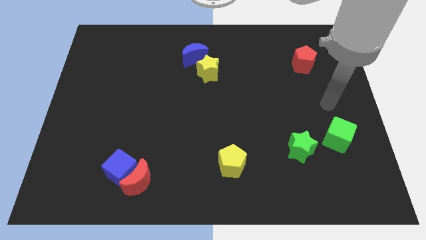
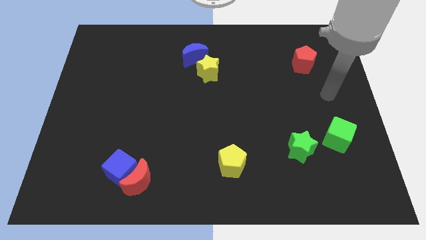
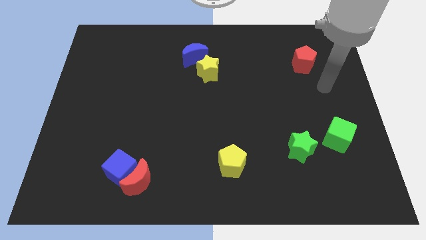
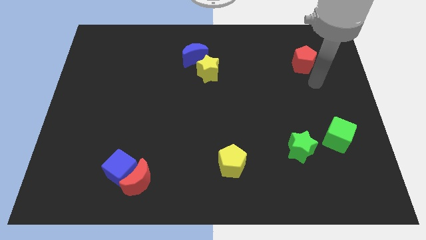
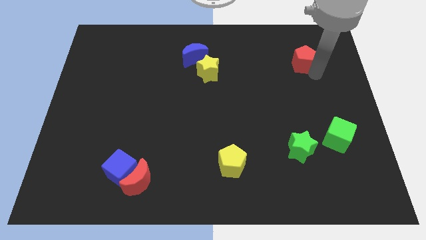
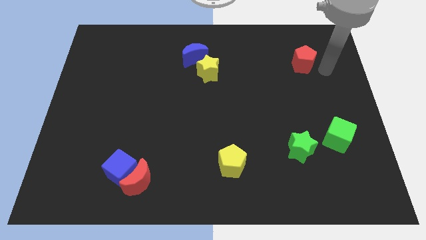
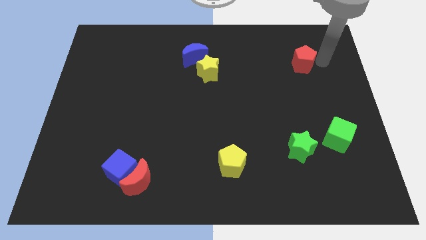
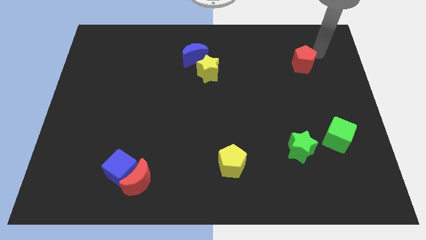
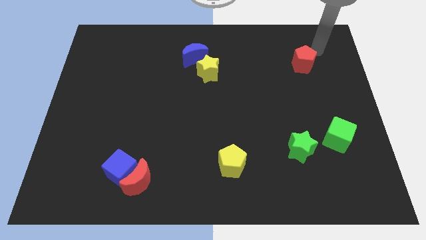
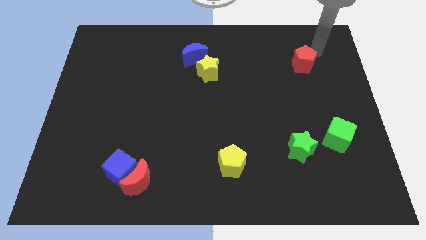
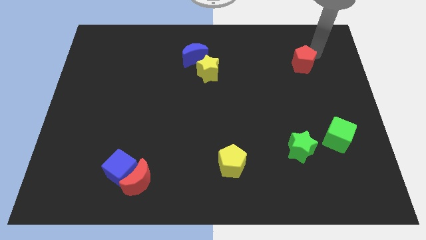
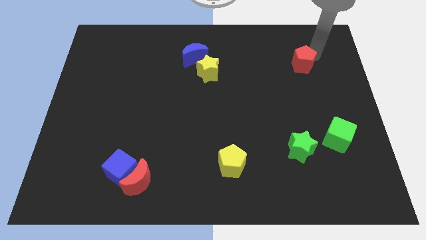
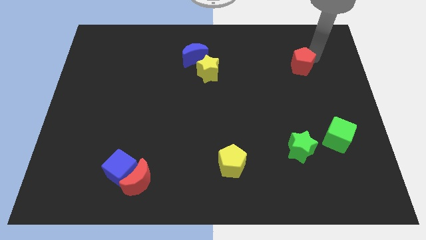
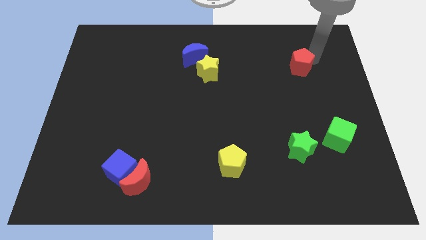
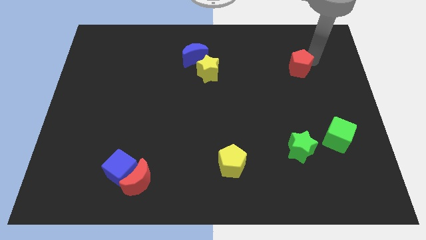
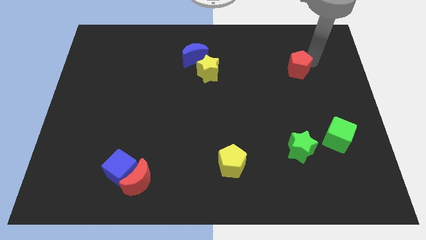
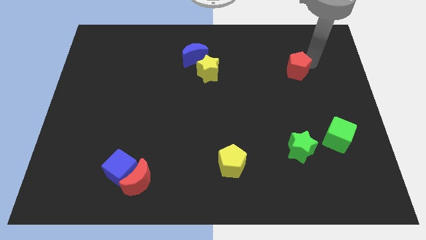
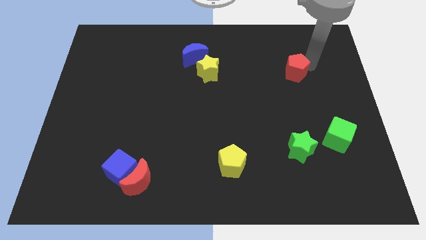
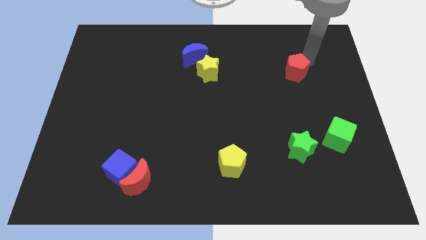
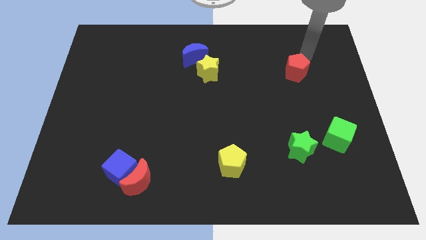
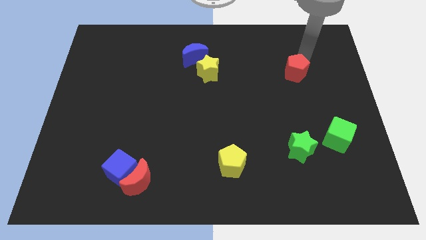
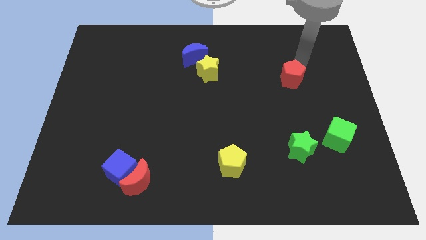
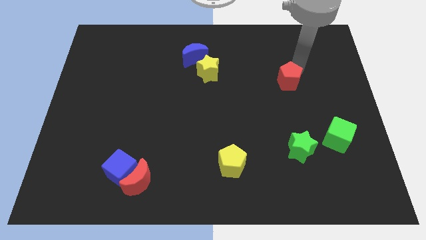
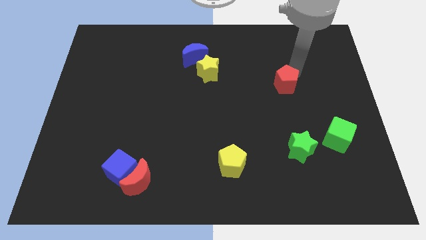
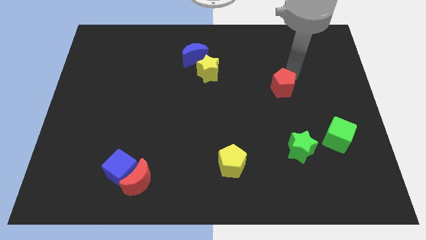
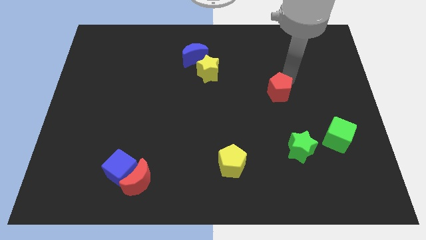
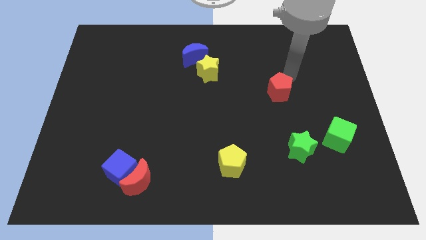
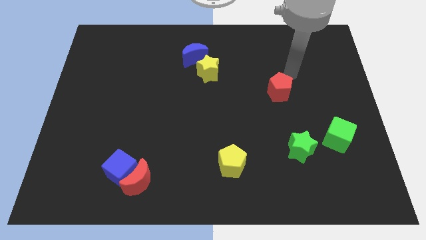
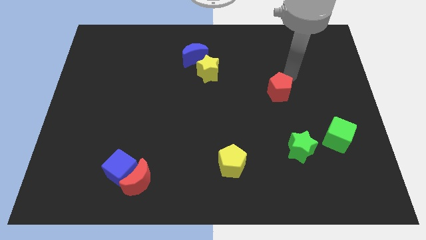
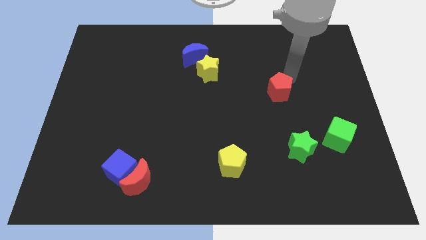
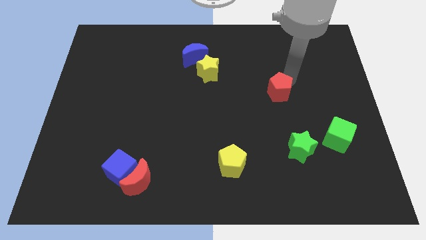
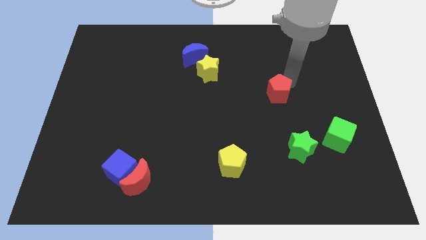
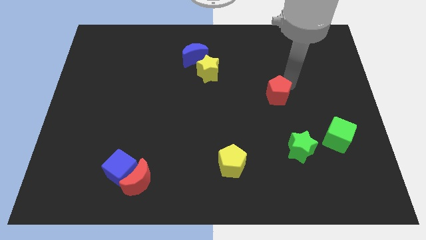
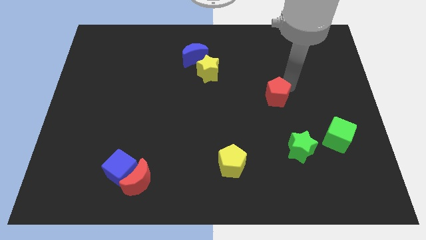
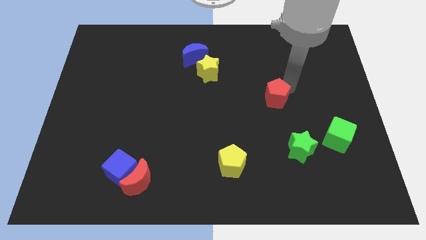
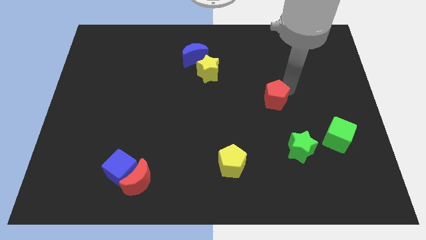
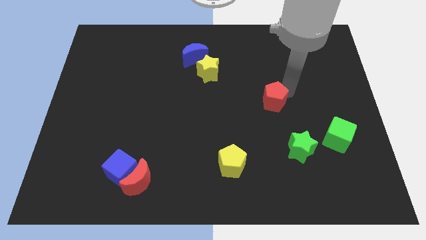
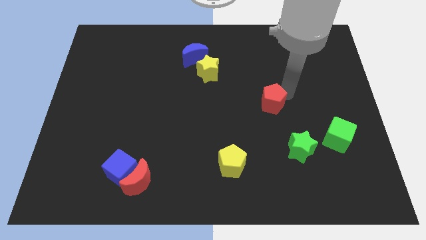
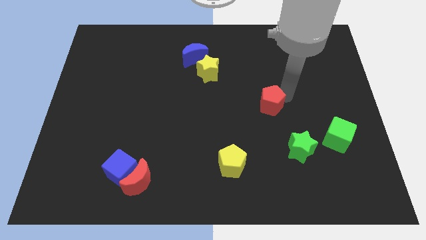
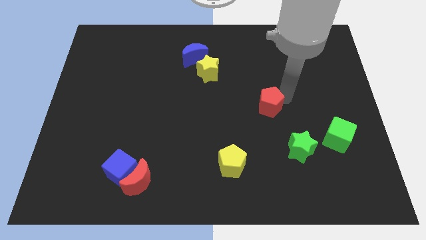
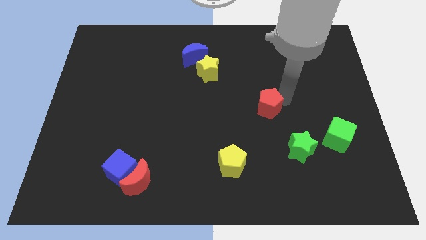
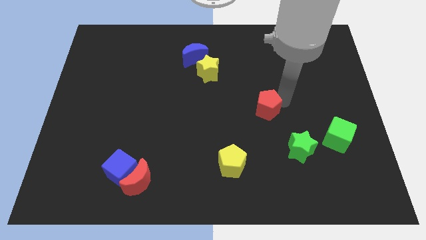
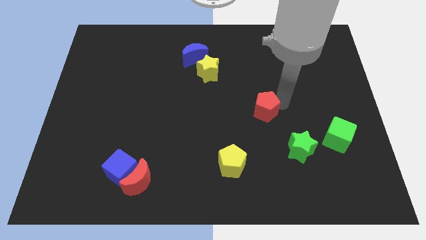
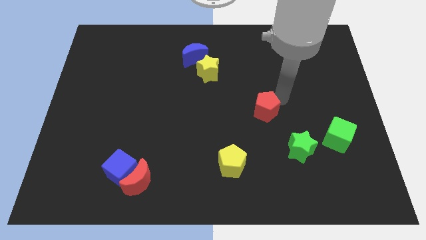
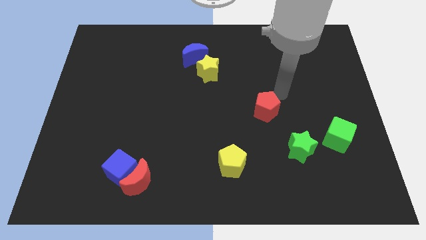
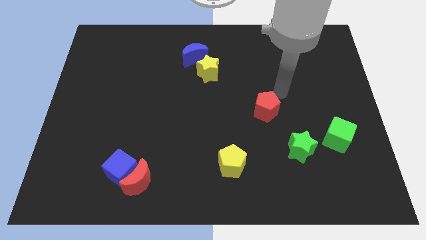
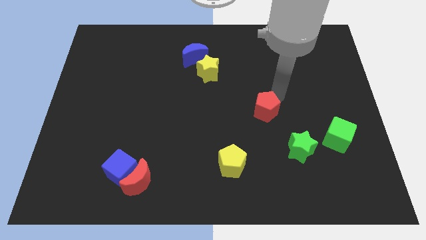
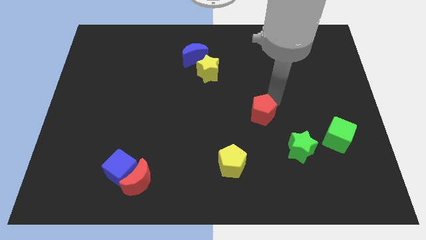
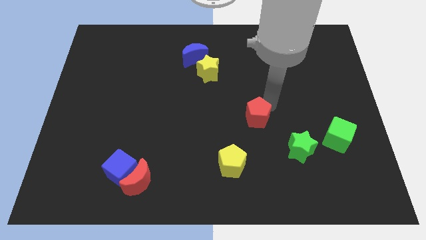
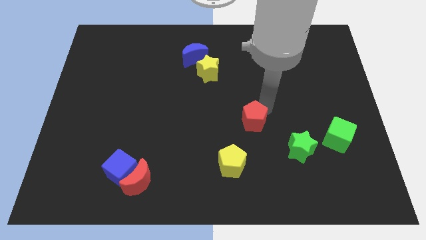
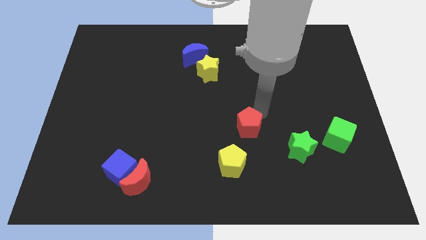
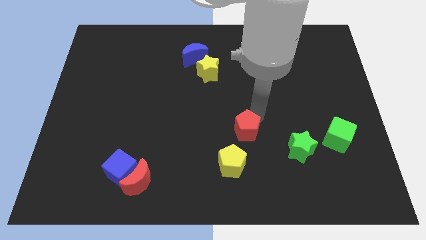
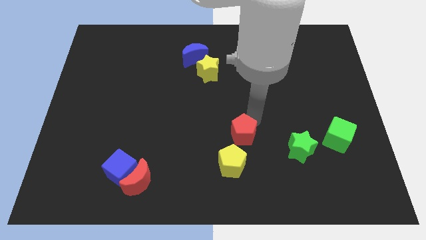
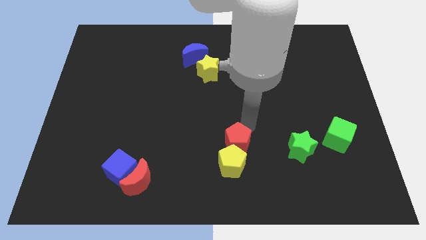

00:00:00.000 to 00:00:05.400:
slide the red pentagon to the yellow pentagon

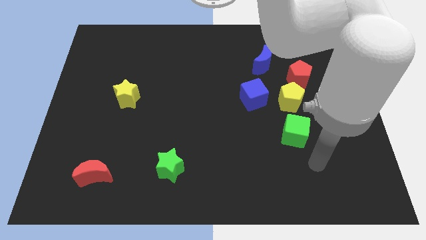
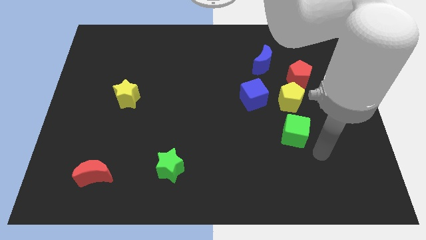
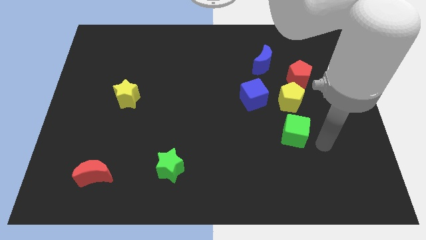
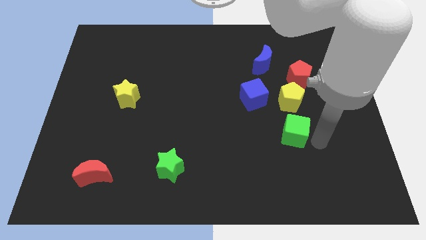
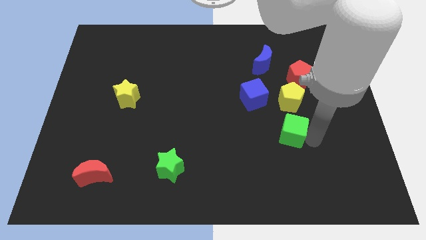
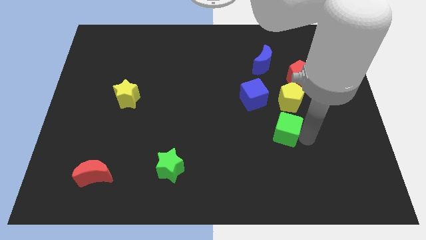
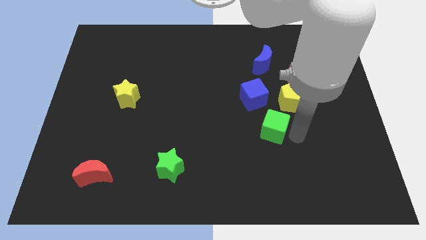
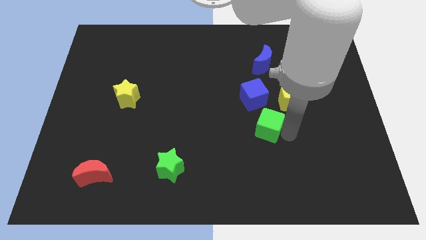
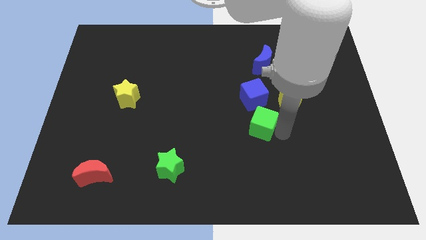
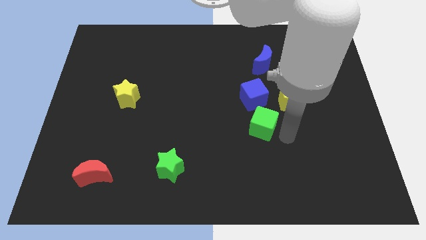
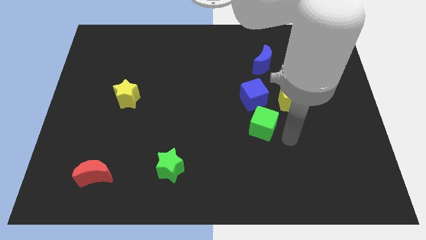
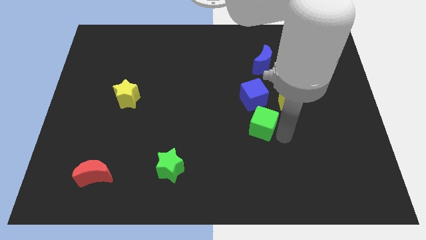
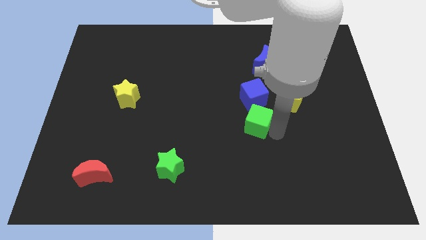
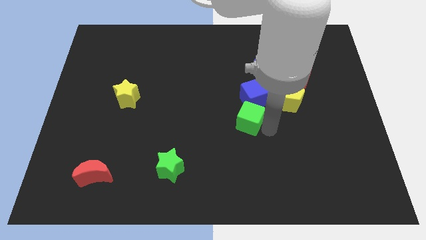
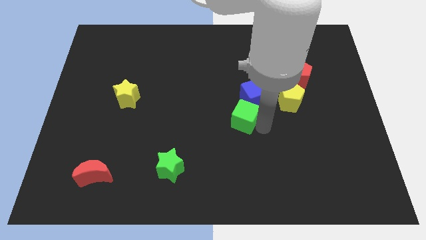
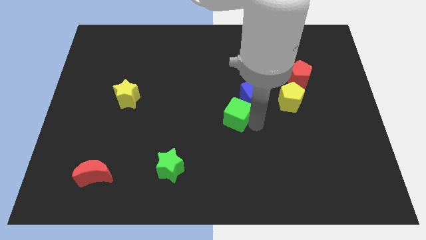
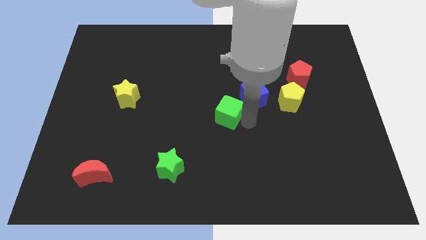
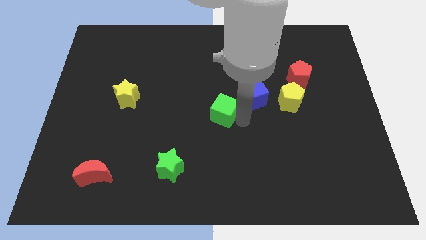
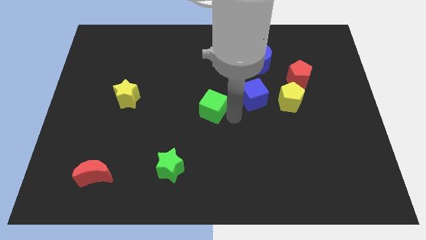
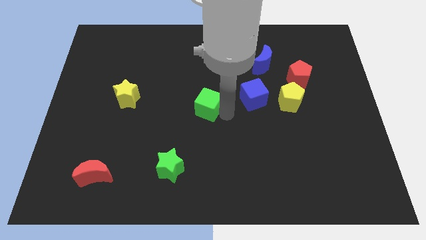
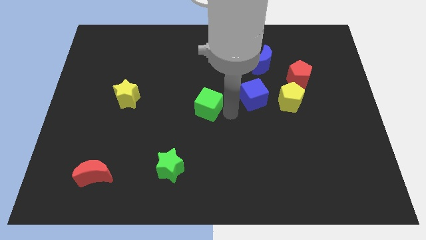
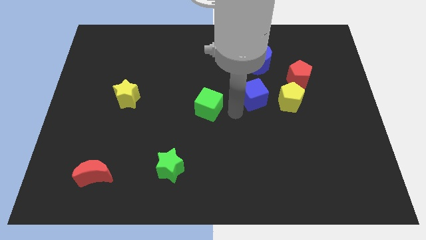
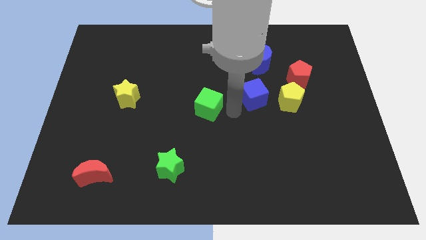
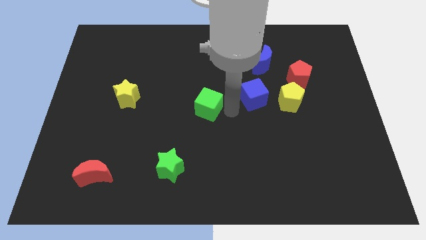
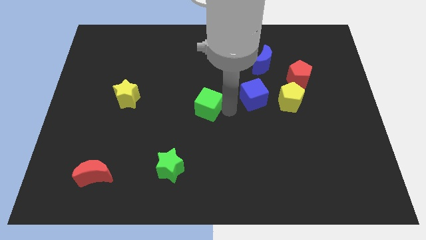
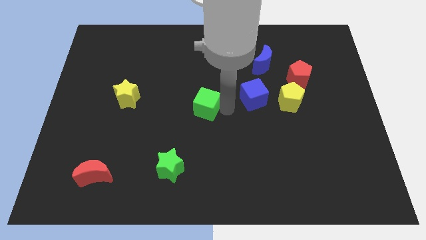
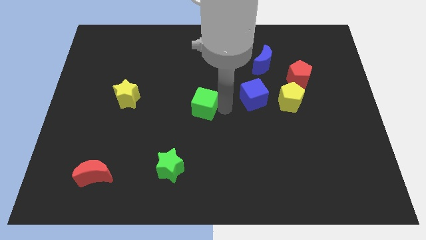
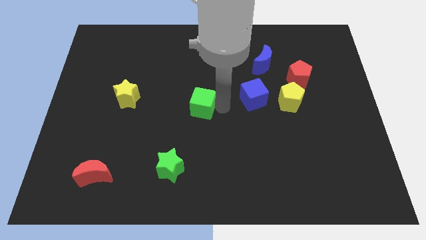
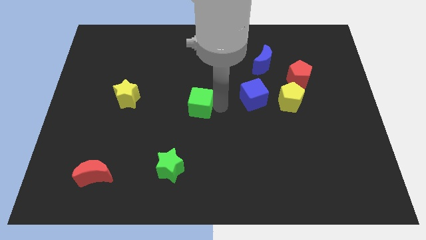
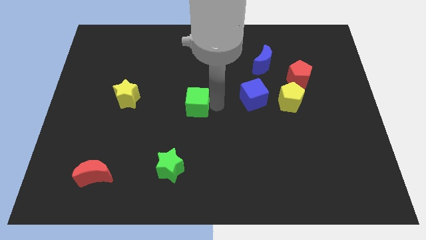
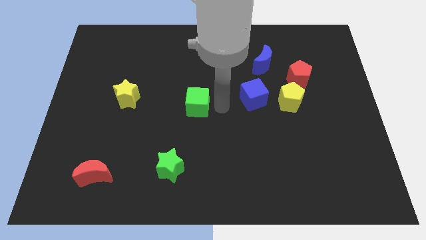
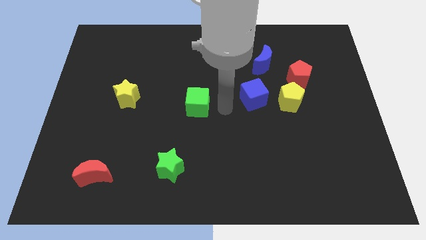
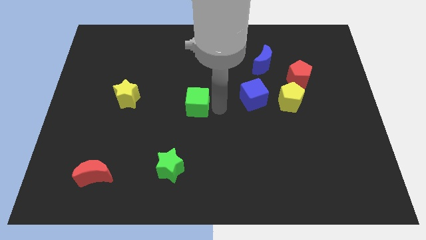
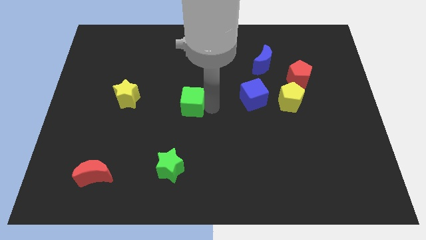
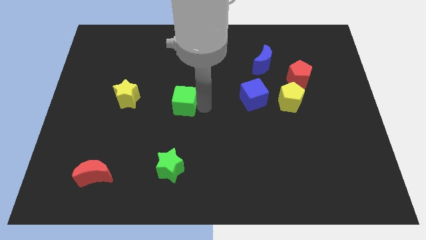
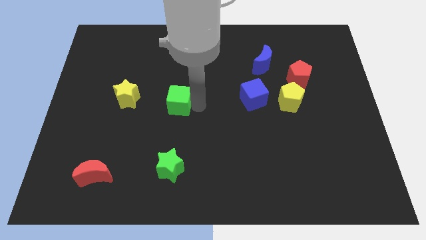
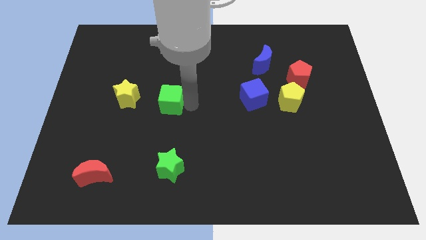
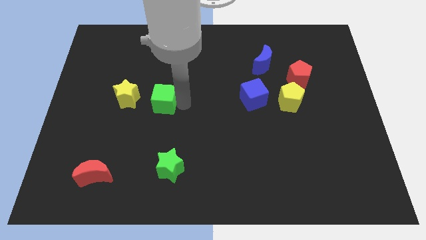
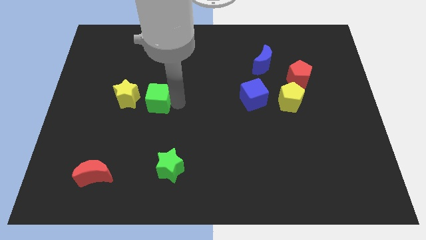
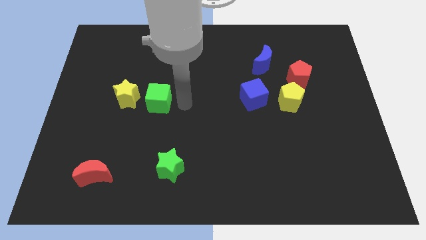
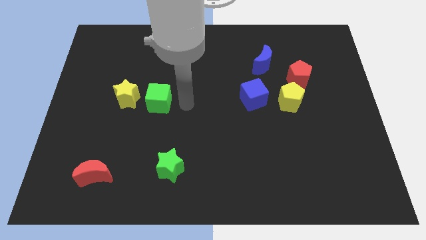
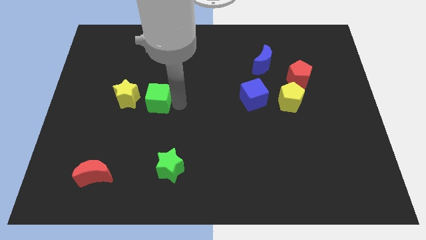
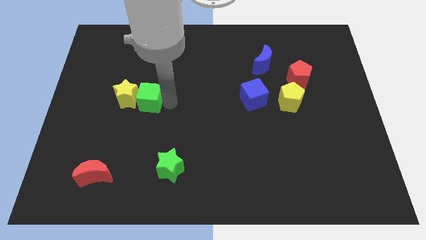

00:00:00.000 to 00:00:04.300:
push the green cube to the yellow star
